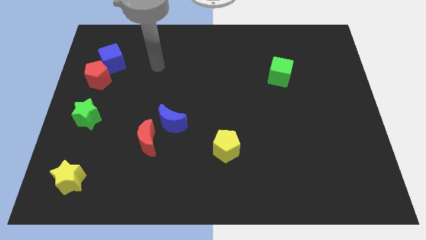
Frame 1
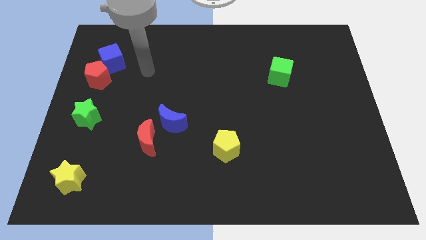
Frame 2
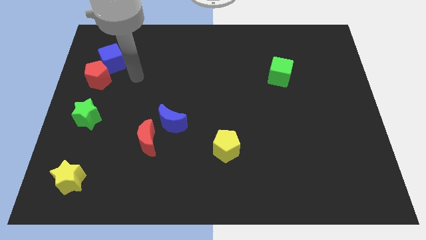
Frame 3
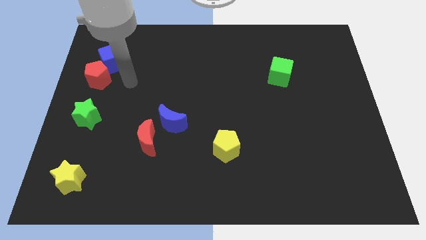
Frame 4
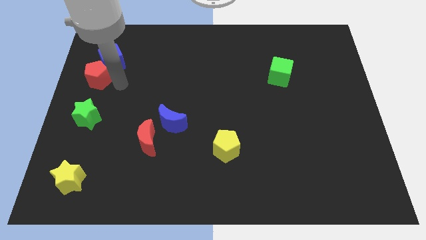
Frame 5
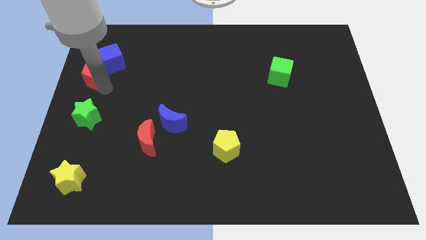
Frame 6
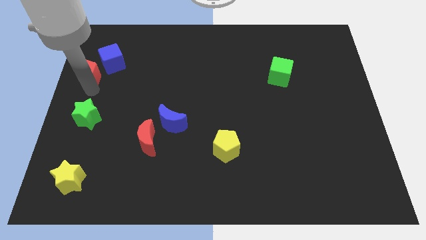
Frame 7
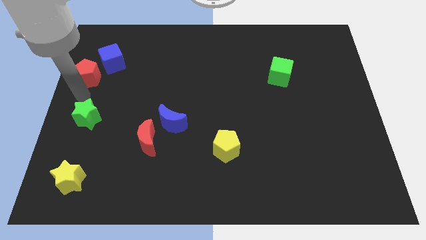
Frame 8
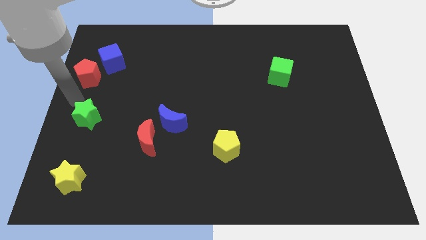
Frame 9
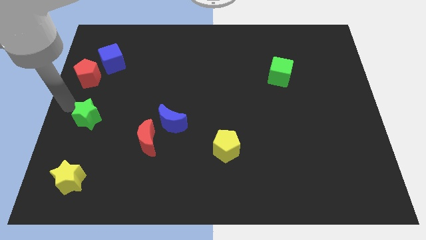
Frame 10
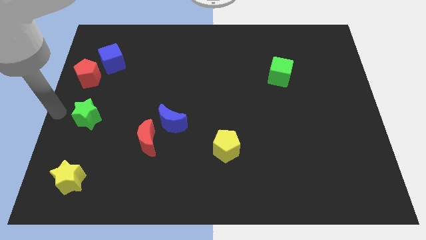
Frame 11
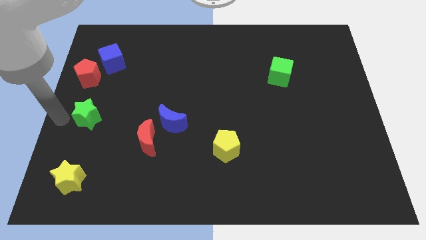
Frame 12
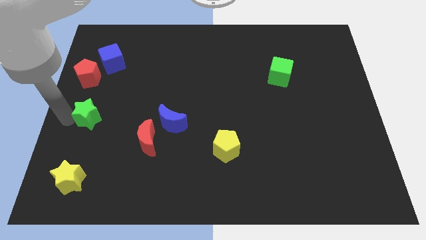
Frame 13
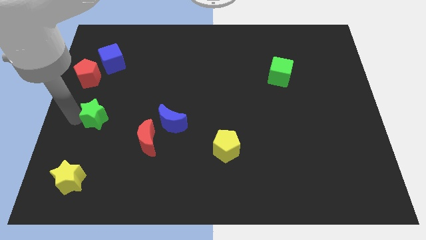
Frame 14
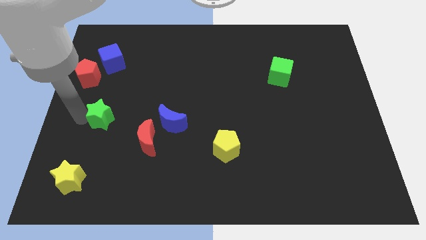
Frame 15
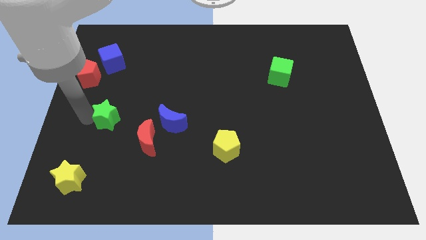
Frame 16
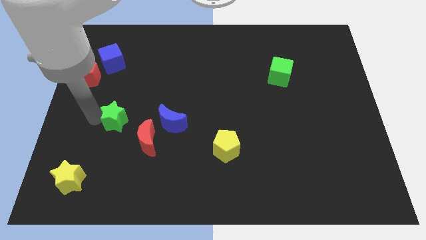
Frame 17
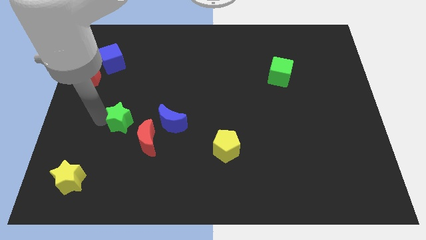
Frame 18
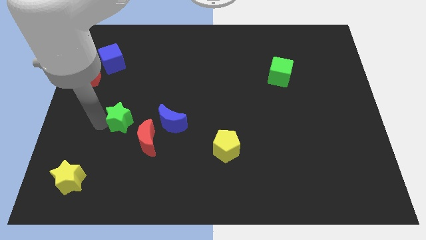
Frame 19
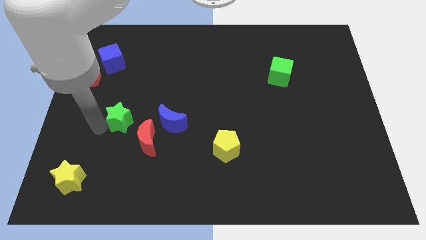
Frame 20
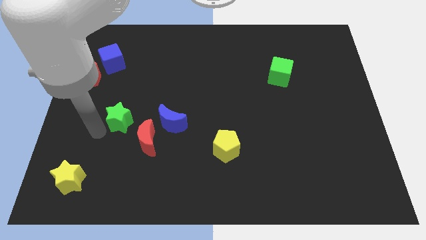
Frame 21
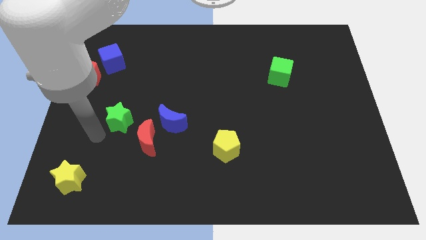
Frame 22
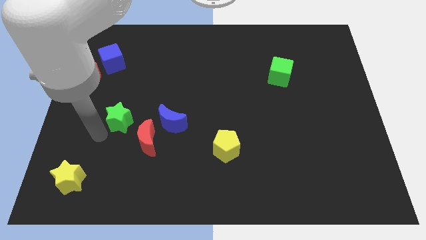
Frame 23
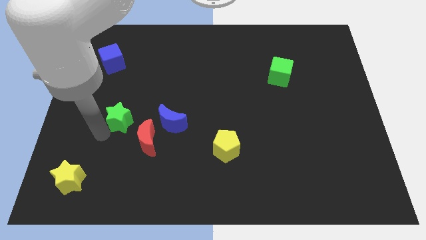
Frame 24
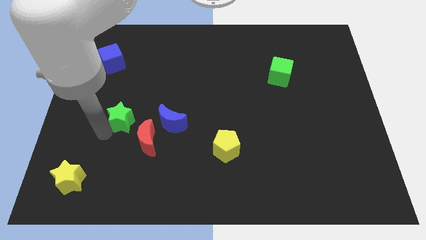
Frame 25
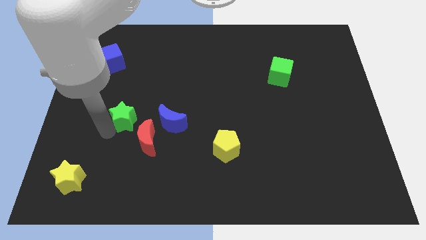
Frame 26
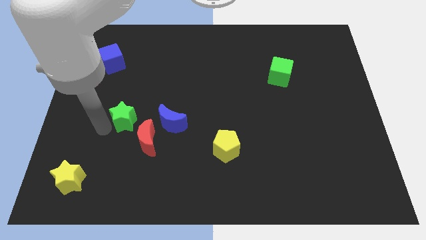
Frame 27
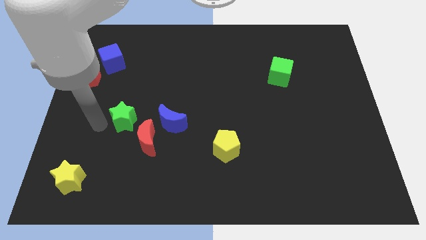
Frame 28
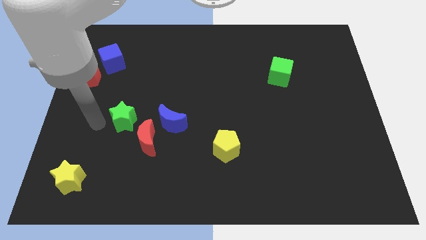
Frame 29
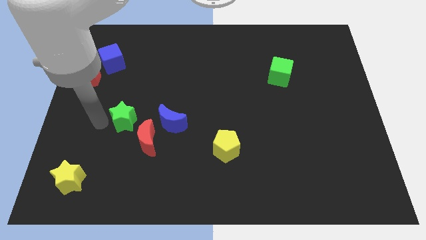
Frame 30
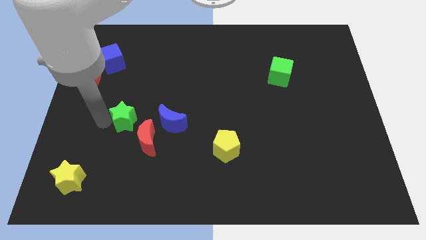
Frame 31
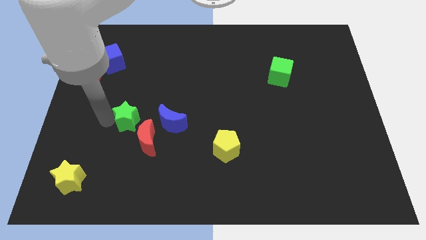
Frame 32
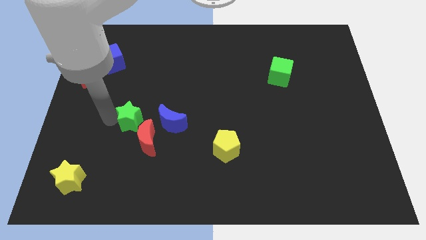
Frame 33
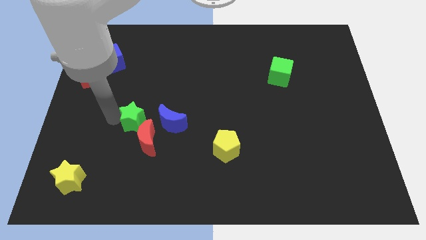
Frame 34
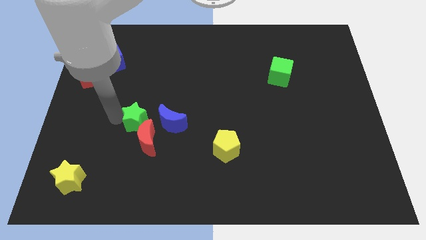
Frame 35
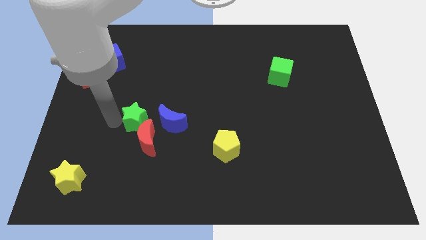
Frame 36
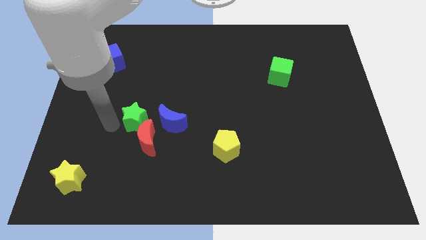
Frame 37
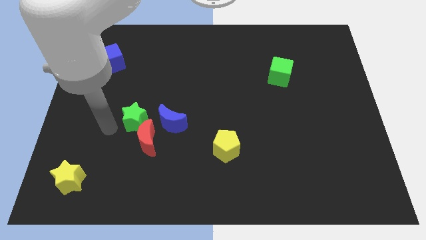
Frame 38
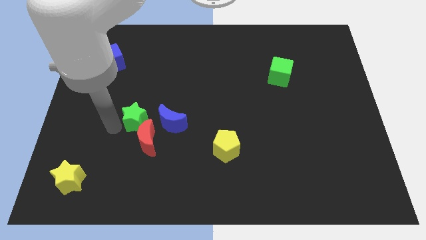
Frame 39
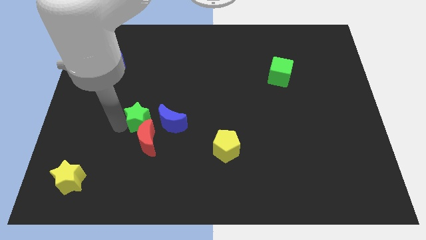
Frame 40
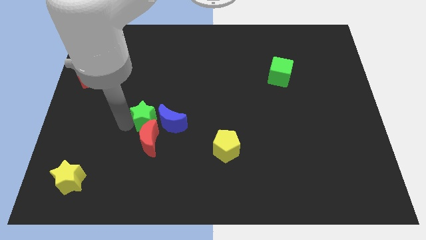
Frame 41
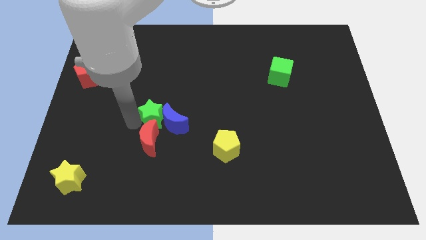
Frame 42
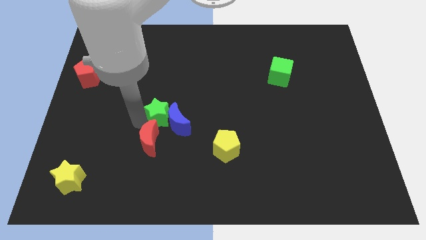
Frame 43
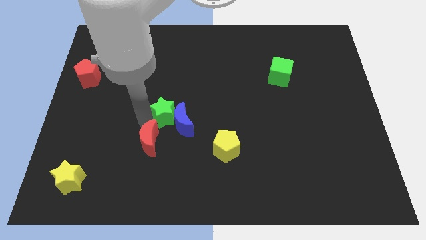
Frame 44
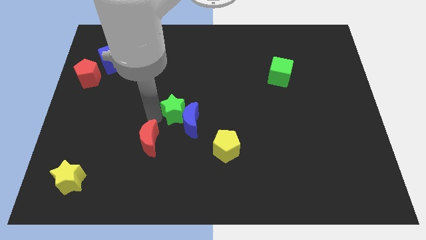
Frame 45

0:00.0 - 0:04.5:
move the green star to the right

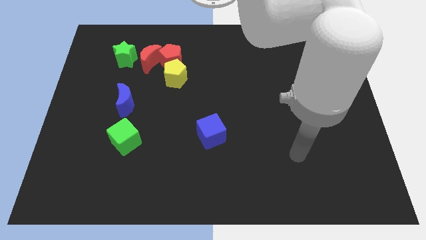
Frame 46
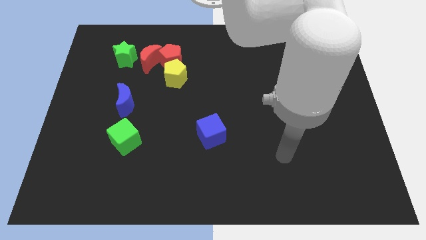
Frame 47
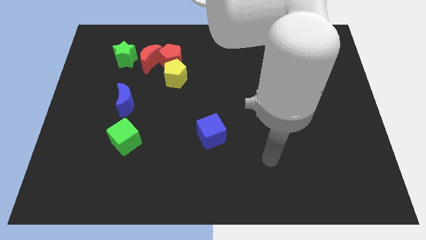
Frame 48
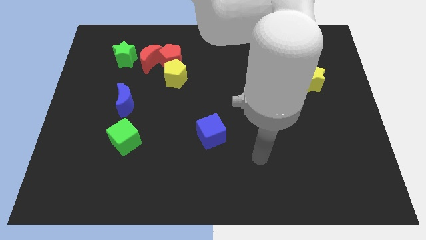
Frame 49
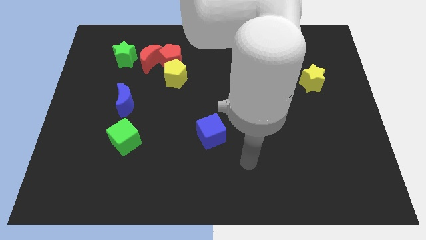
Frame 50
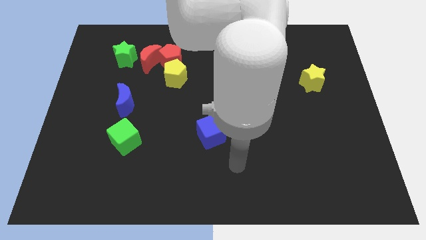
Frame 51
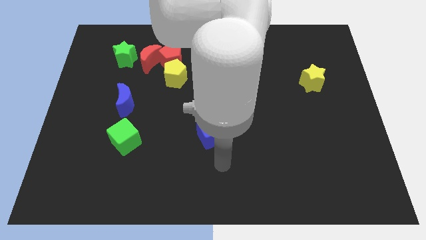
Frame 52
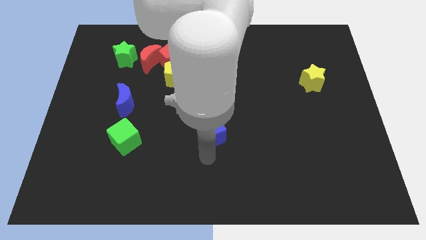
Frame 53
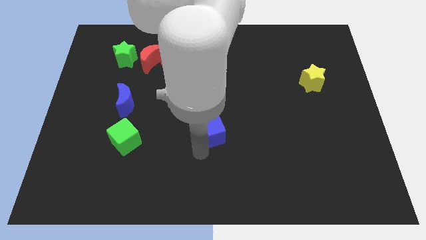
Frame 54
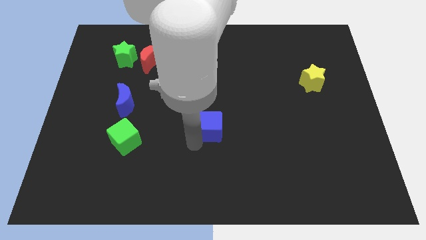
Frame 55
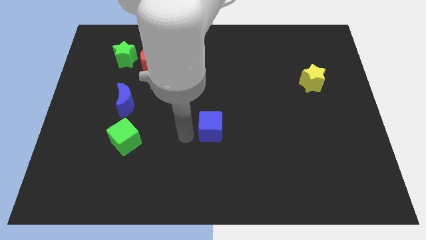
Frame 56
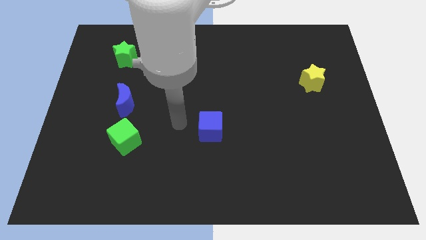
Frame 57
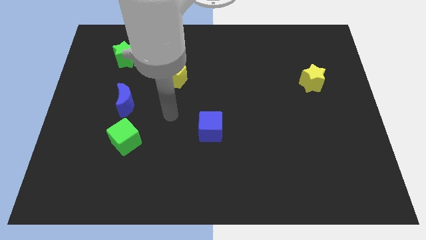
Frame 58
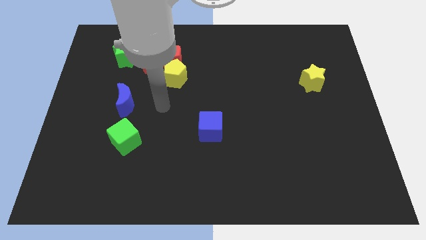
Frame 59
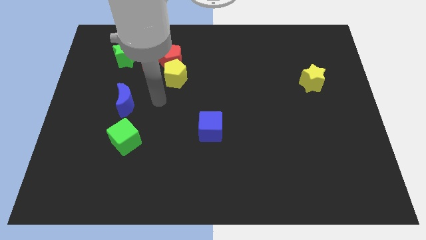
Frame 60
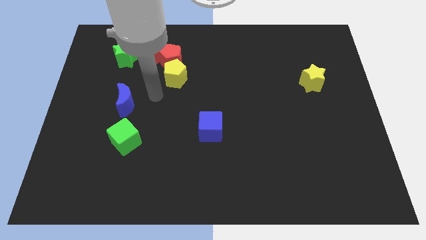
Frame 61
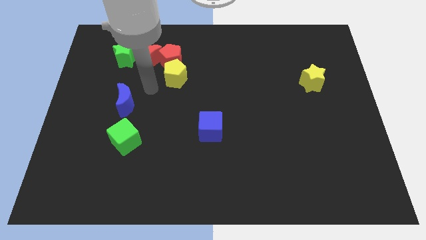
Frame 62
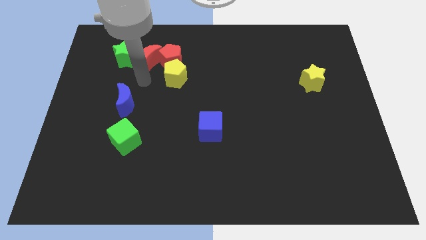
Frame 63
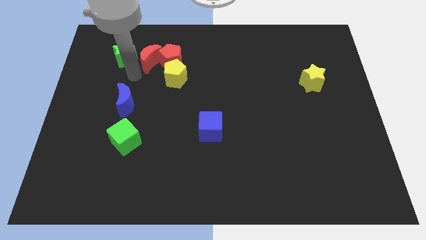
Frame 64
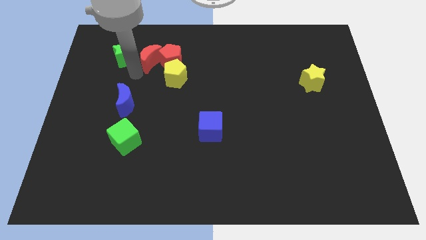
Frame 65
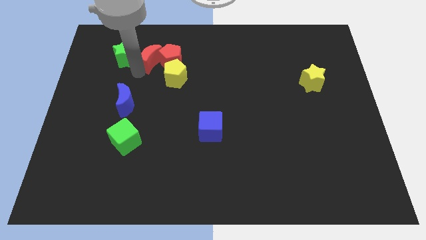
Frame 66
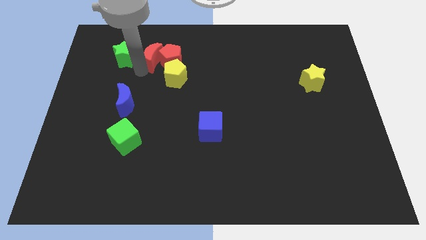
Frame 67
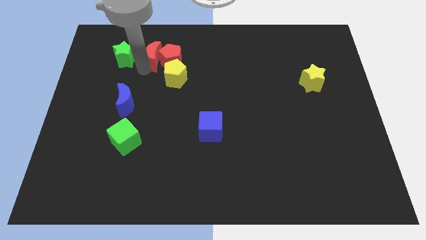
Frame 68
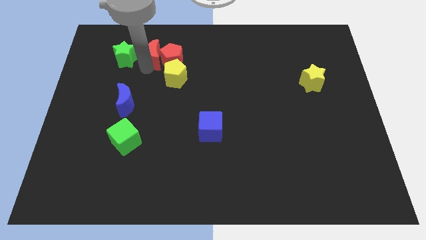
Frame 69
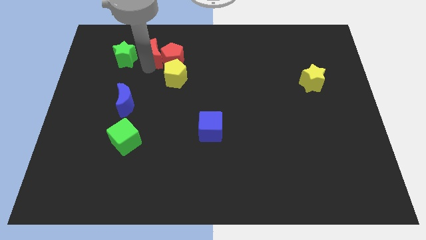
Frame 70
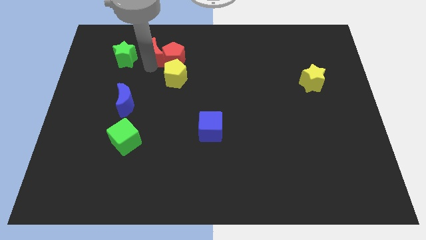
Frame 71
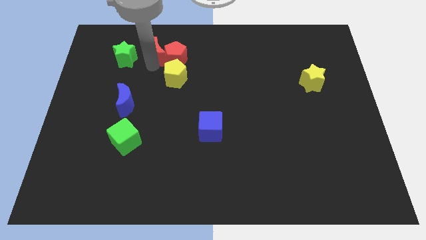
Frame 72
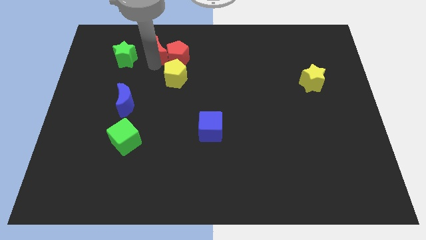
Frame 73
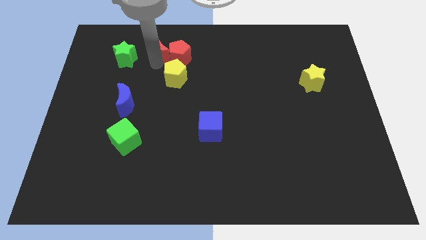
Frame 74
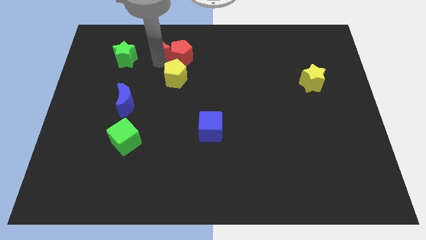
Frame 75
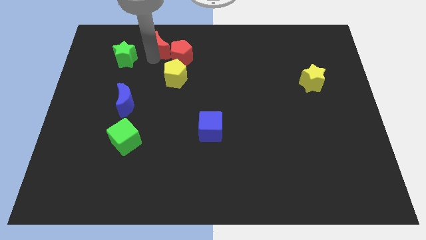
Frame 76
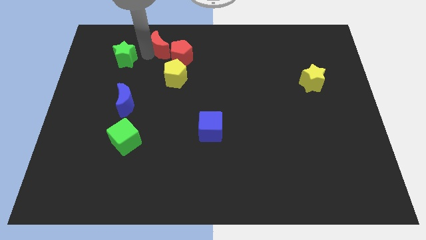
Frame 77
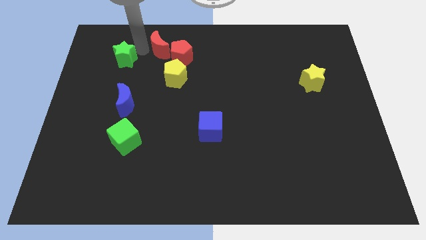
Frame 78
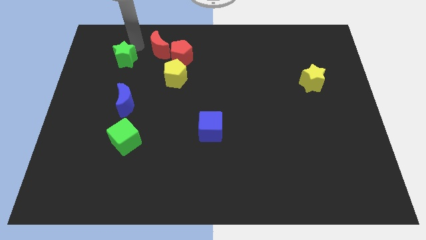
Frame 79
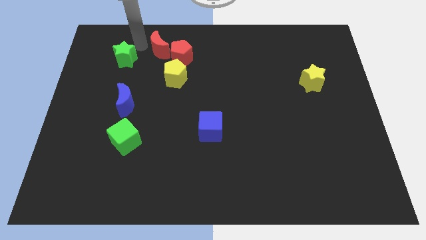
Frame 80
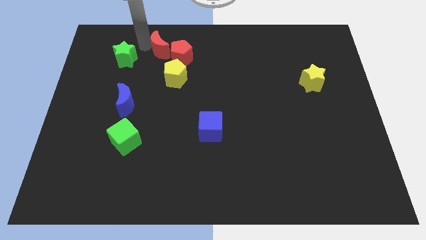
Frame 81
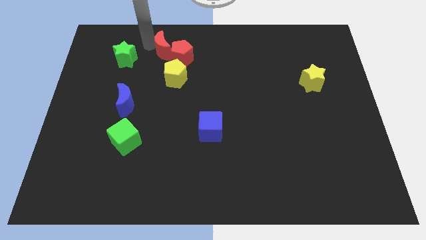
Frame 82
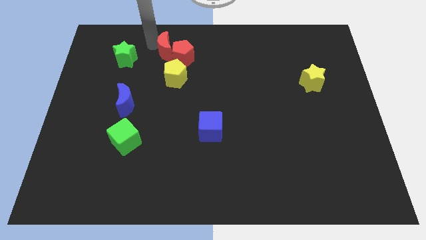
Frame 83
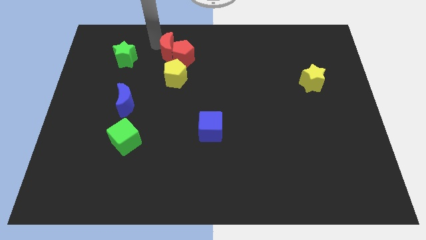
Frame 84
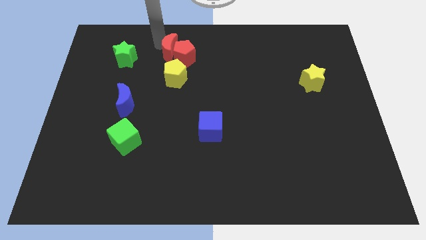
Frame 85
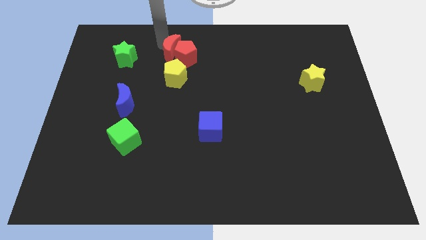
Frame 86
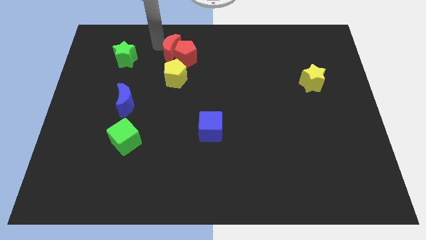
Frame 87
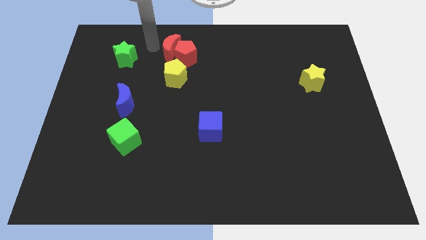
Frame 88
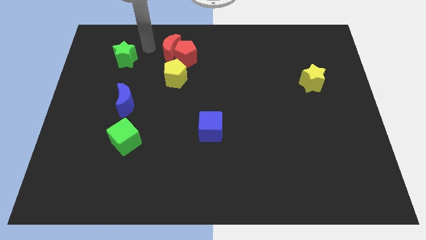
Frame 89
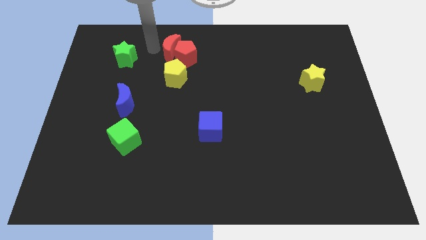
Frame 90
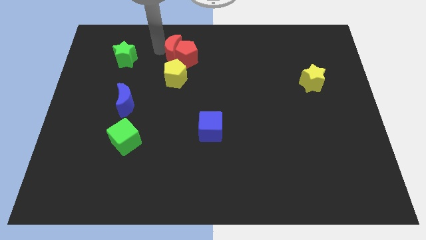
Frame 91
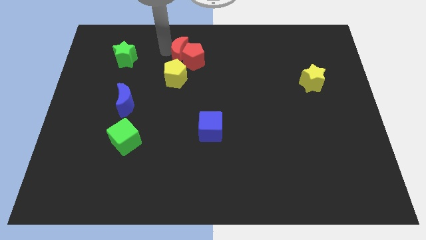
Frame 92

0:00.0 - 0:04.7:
push the red moon to the right a little bit
